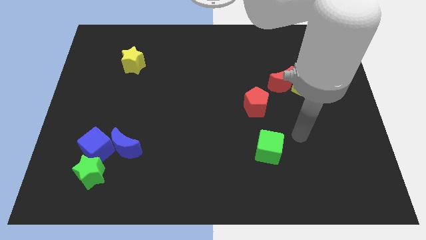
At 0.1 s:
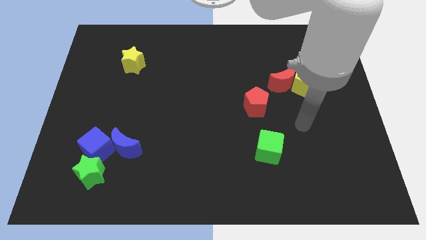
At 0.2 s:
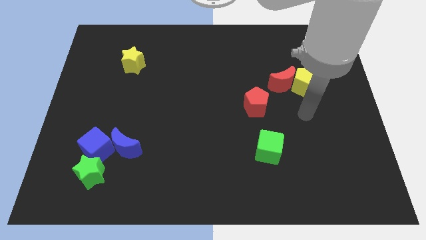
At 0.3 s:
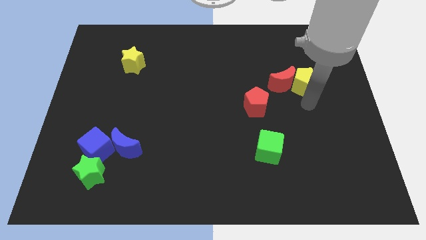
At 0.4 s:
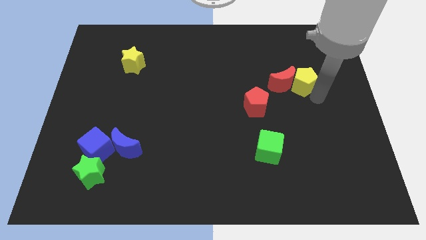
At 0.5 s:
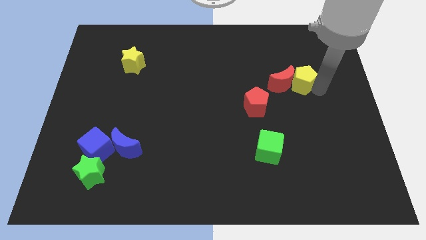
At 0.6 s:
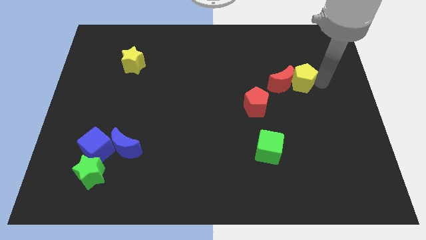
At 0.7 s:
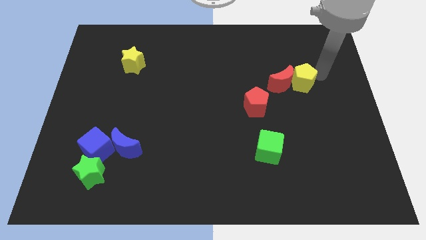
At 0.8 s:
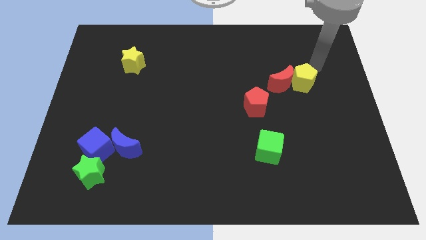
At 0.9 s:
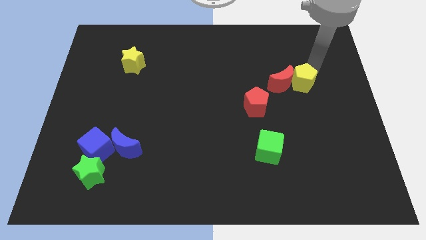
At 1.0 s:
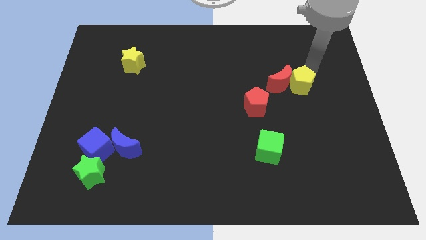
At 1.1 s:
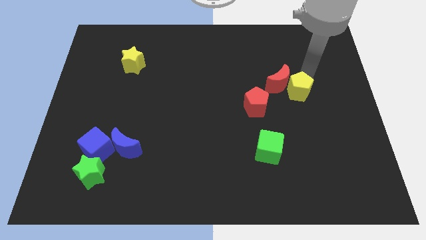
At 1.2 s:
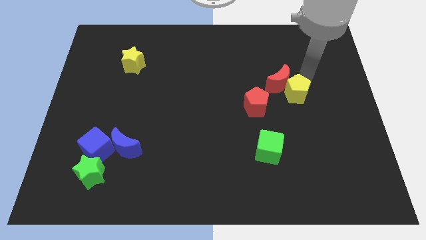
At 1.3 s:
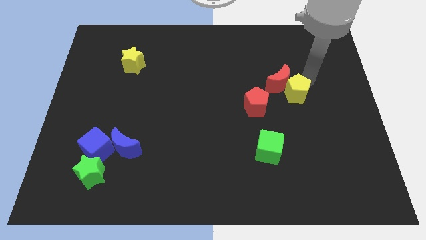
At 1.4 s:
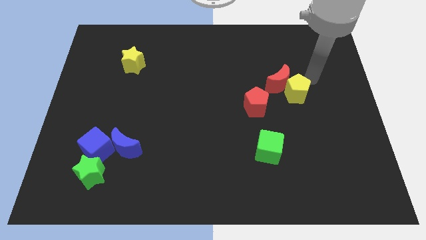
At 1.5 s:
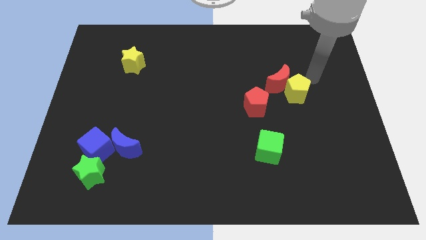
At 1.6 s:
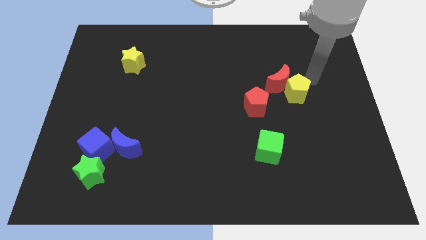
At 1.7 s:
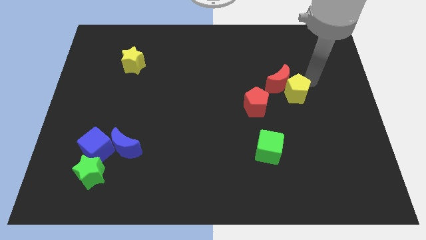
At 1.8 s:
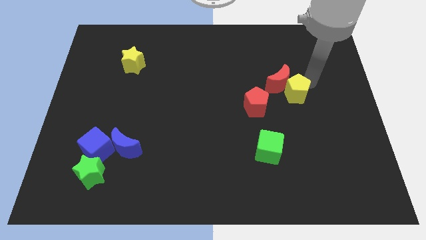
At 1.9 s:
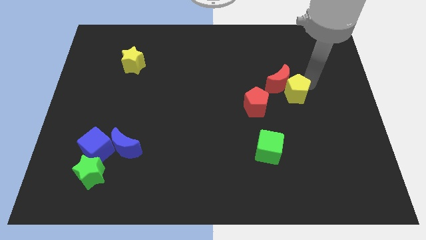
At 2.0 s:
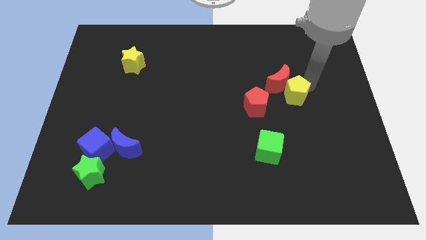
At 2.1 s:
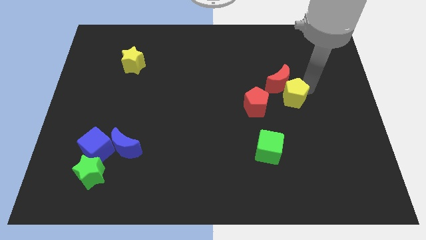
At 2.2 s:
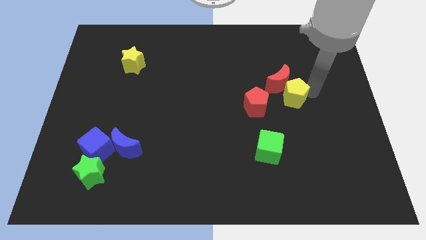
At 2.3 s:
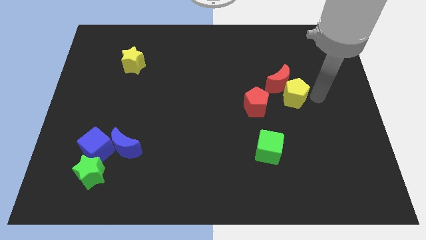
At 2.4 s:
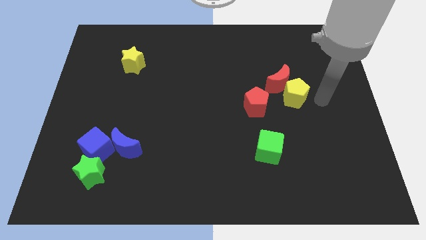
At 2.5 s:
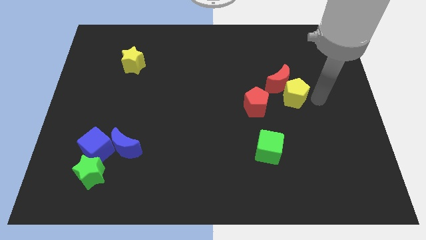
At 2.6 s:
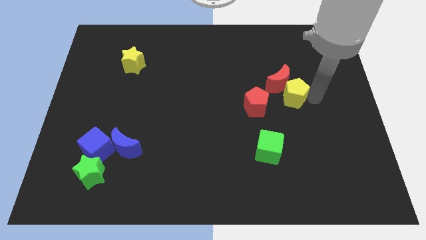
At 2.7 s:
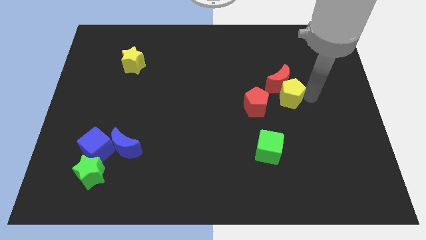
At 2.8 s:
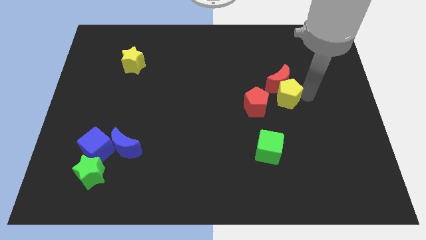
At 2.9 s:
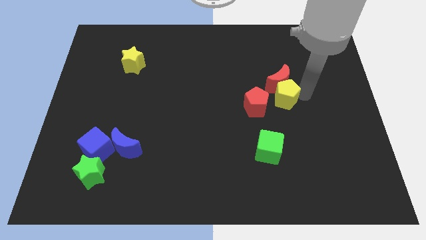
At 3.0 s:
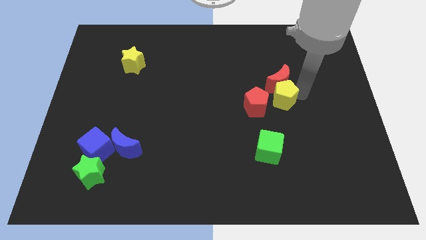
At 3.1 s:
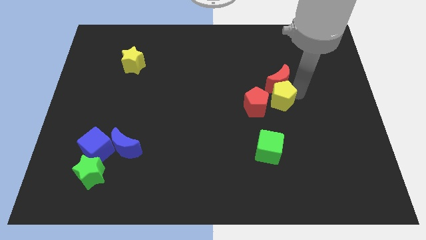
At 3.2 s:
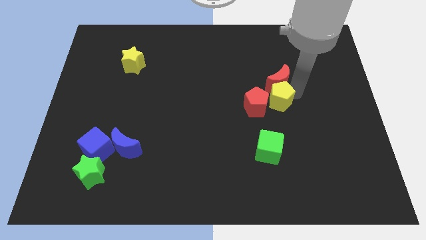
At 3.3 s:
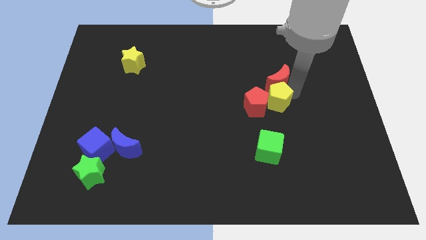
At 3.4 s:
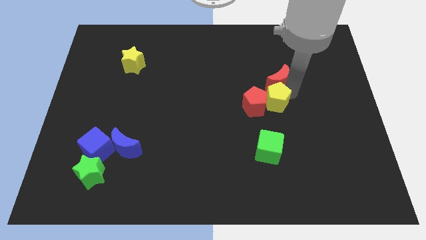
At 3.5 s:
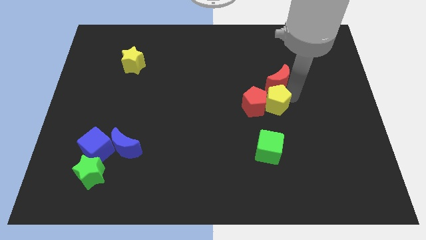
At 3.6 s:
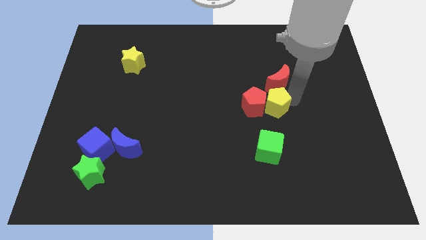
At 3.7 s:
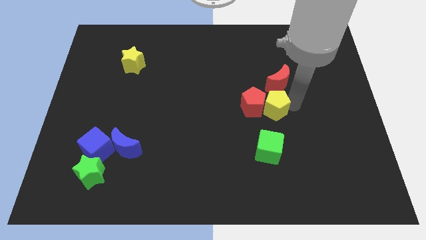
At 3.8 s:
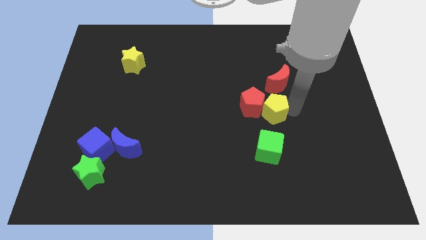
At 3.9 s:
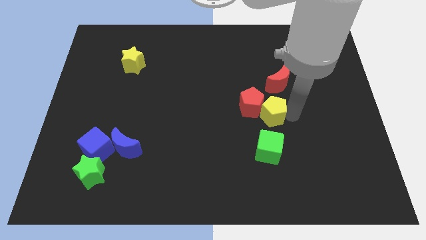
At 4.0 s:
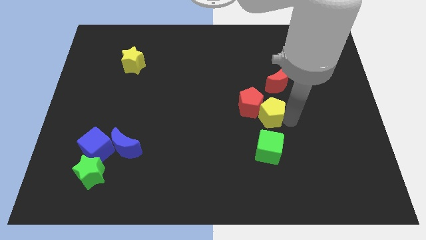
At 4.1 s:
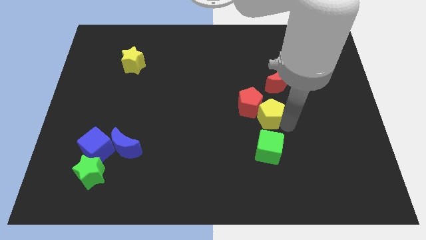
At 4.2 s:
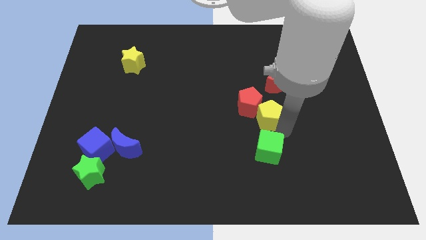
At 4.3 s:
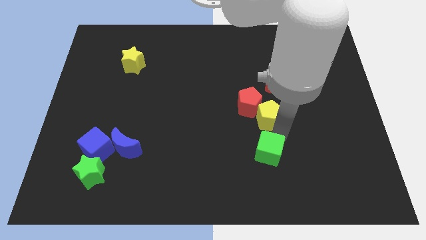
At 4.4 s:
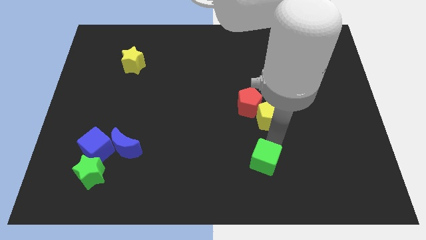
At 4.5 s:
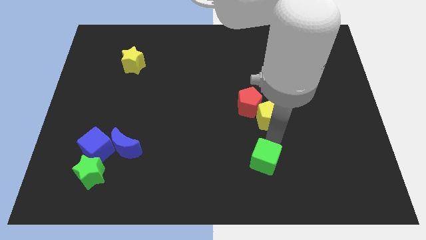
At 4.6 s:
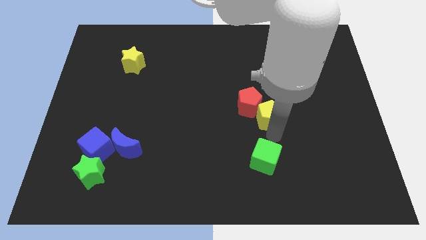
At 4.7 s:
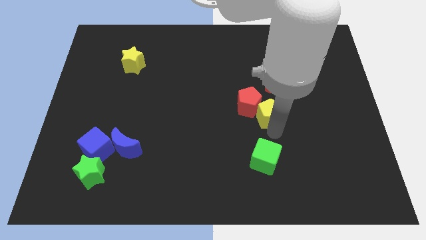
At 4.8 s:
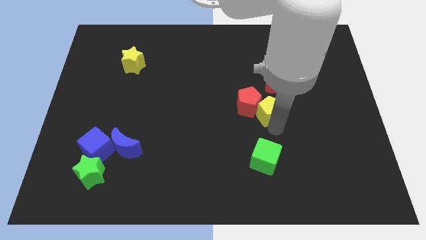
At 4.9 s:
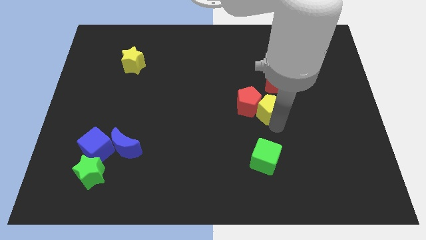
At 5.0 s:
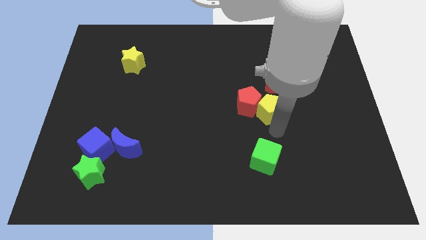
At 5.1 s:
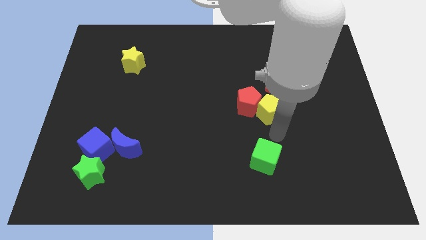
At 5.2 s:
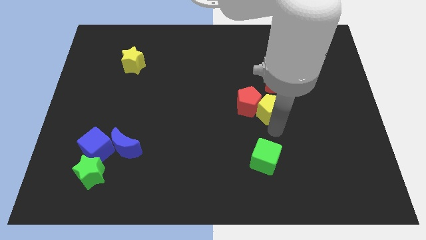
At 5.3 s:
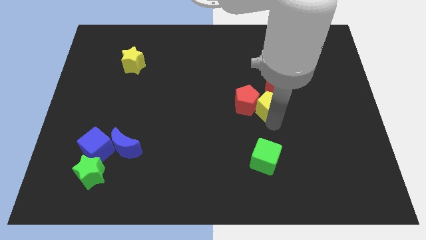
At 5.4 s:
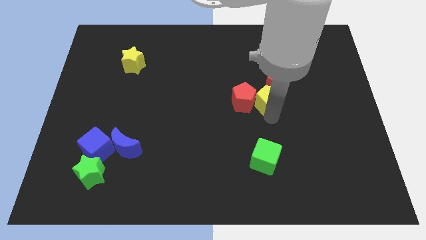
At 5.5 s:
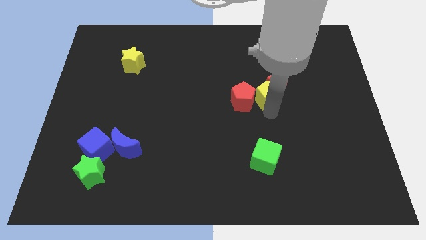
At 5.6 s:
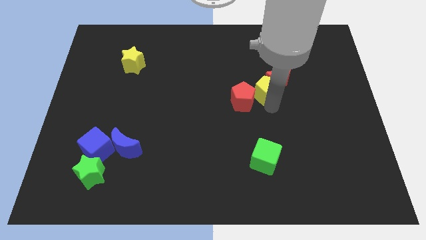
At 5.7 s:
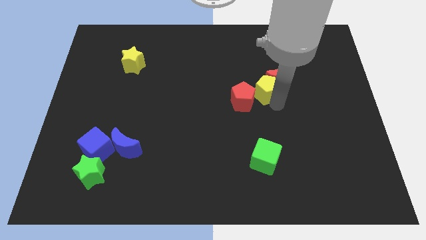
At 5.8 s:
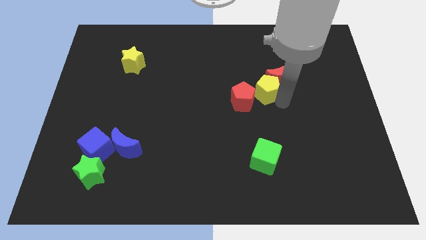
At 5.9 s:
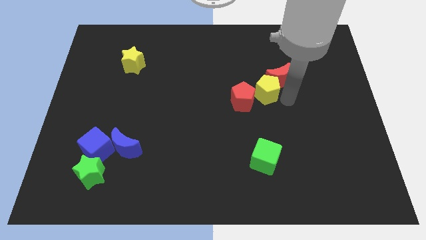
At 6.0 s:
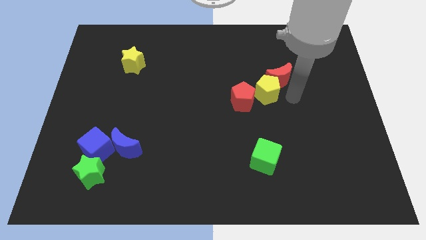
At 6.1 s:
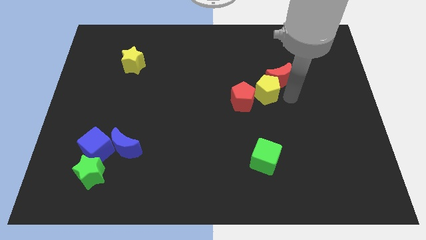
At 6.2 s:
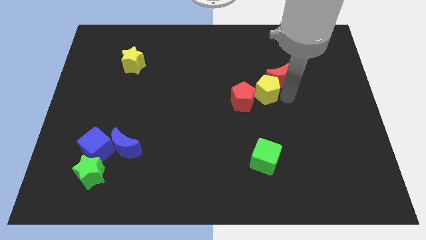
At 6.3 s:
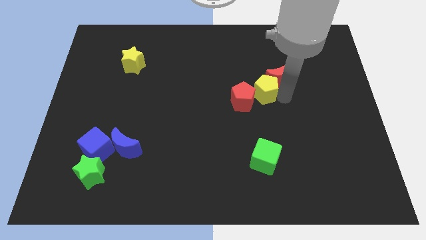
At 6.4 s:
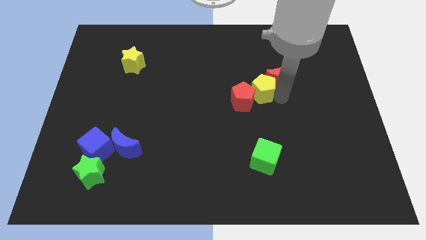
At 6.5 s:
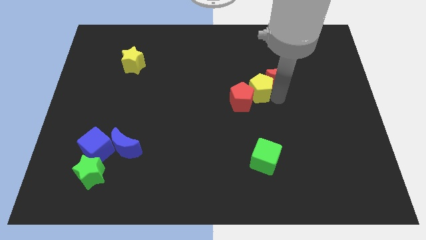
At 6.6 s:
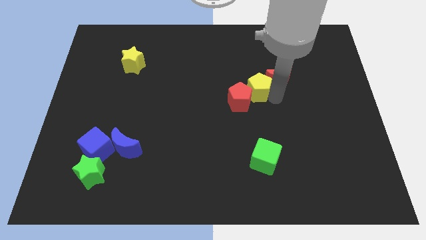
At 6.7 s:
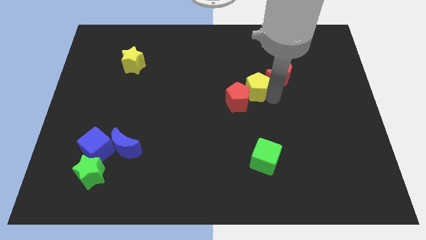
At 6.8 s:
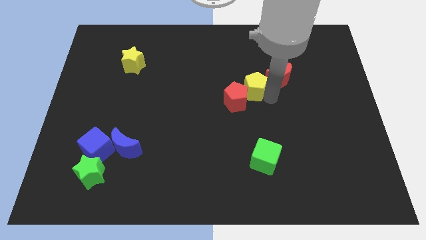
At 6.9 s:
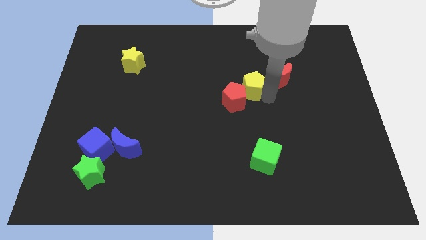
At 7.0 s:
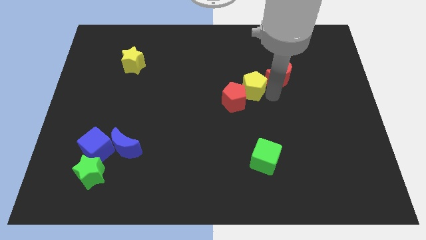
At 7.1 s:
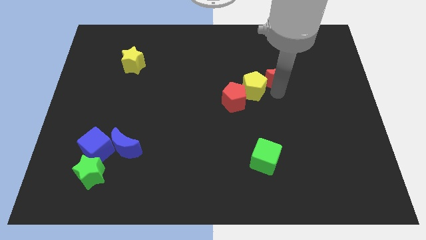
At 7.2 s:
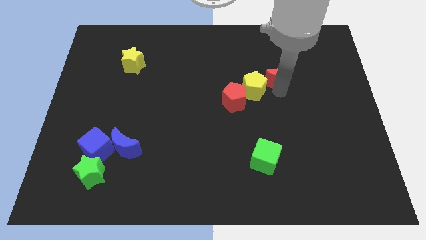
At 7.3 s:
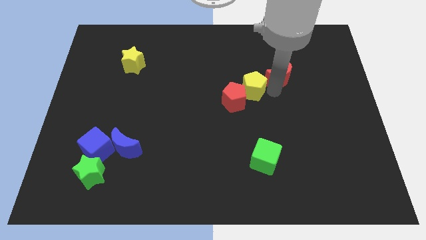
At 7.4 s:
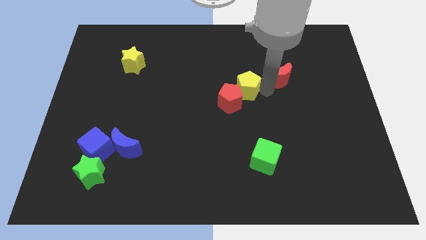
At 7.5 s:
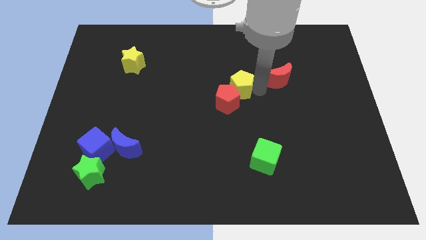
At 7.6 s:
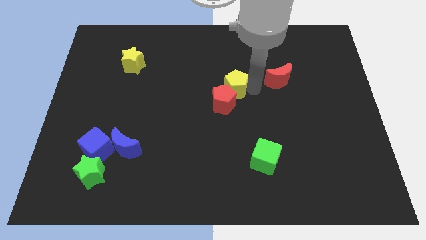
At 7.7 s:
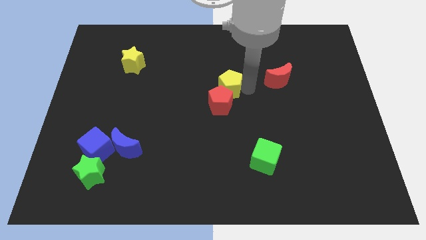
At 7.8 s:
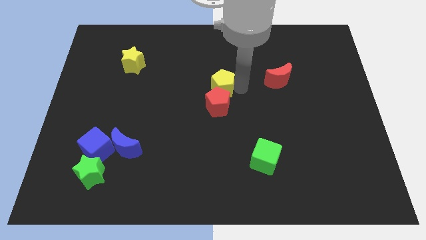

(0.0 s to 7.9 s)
push the yellow pentagon to the left
